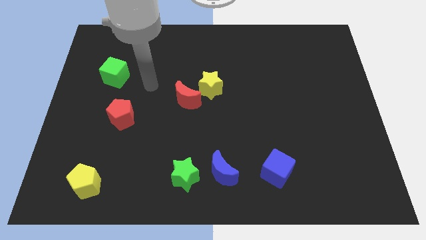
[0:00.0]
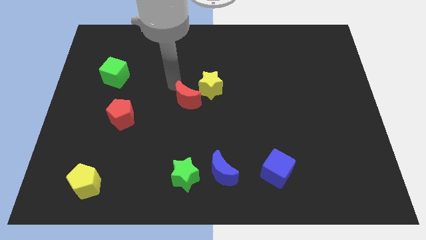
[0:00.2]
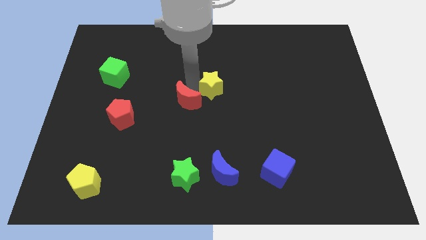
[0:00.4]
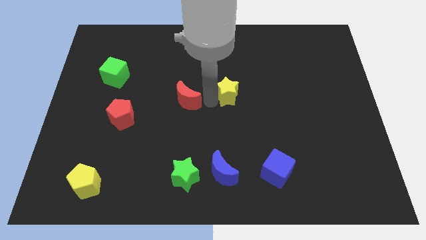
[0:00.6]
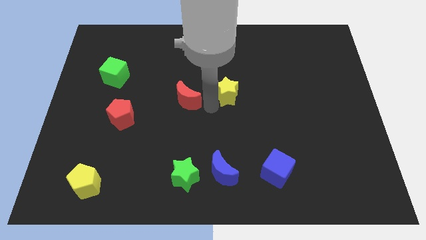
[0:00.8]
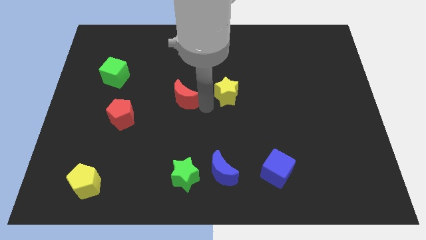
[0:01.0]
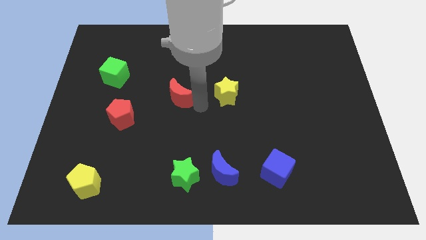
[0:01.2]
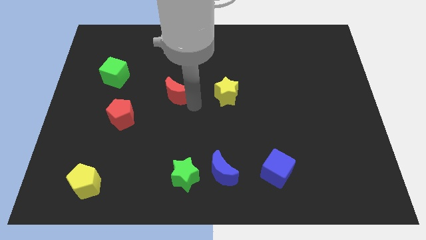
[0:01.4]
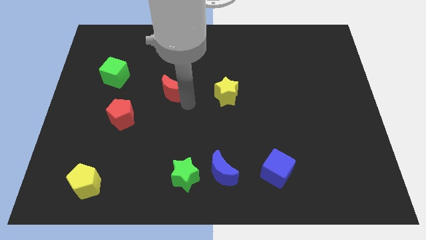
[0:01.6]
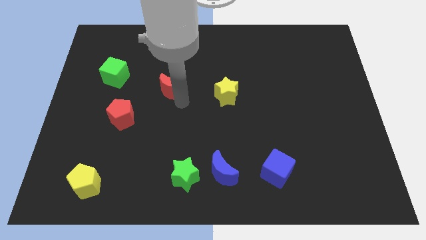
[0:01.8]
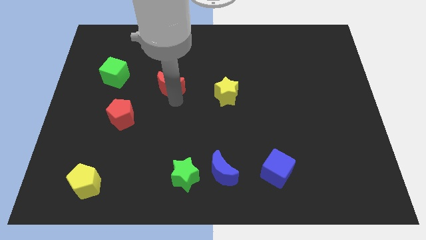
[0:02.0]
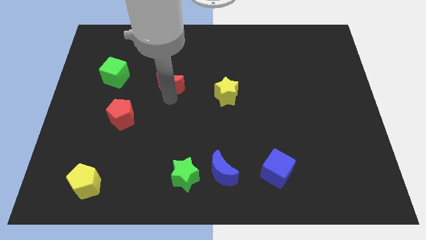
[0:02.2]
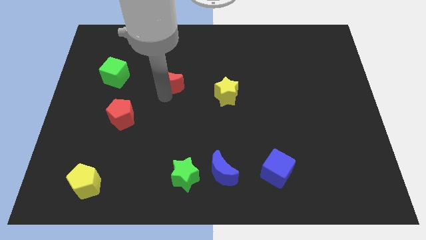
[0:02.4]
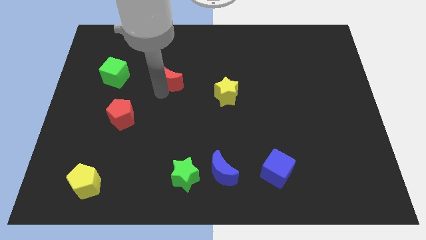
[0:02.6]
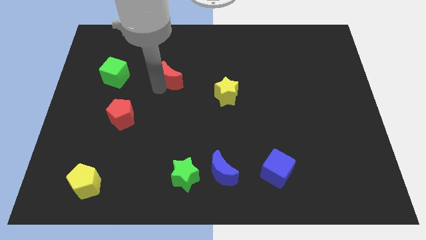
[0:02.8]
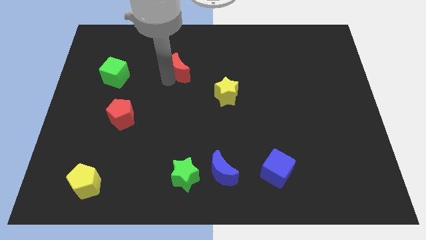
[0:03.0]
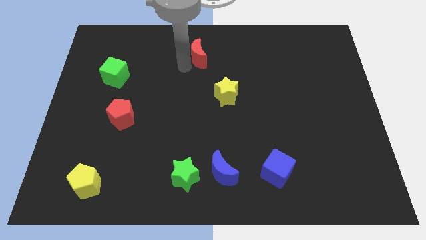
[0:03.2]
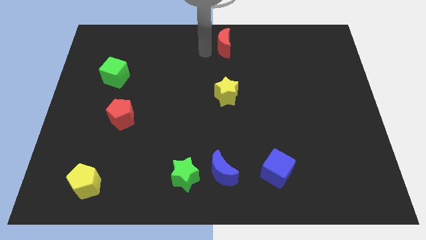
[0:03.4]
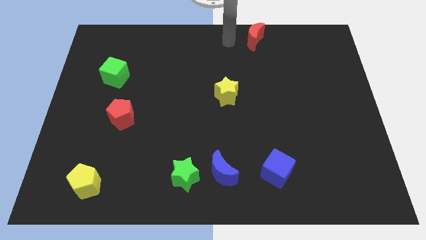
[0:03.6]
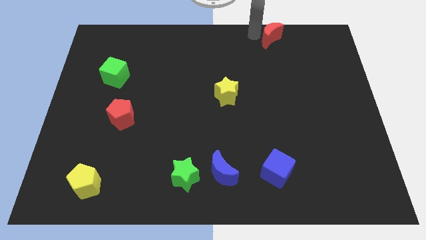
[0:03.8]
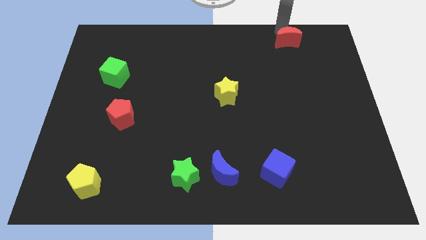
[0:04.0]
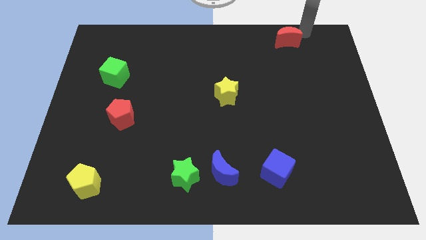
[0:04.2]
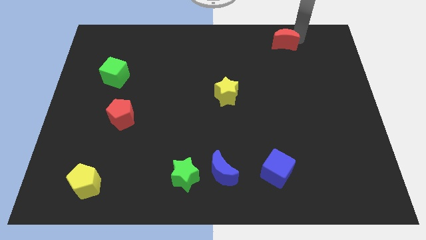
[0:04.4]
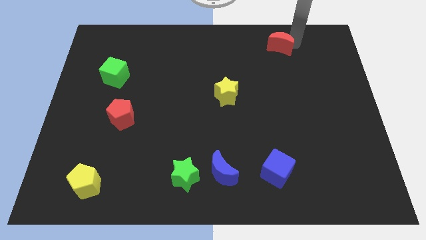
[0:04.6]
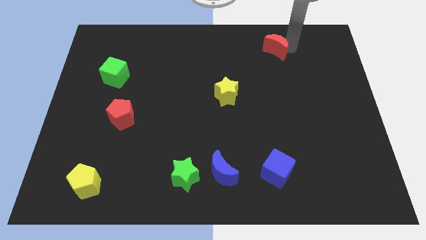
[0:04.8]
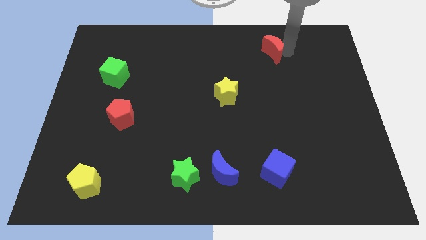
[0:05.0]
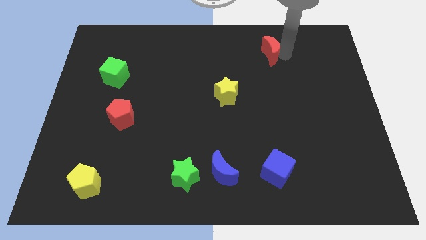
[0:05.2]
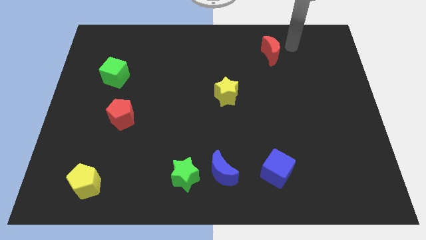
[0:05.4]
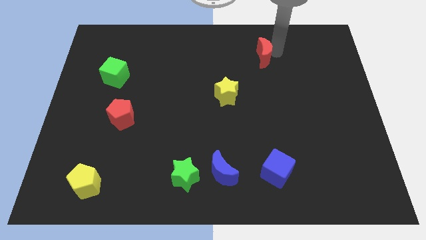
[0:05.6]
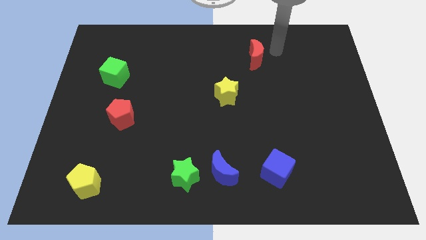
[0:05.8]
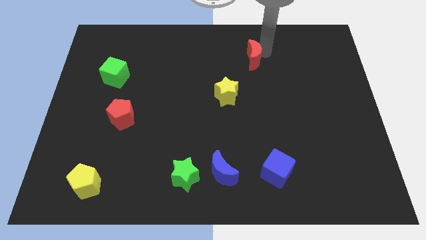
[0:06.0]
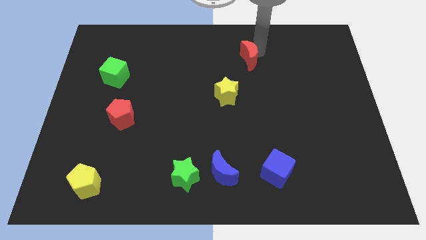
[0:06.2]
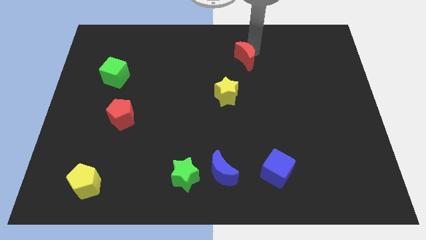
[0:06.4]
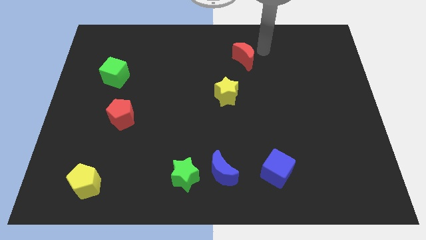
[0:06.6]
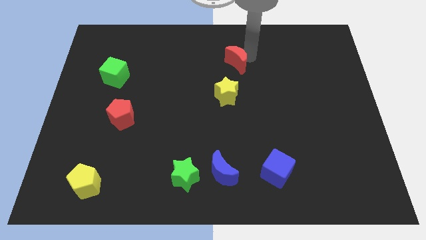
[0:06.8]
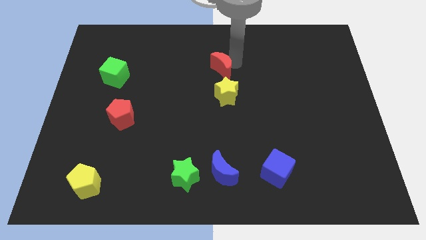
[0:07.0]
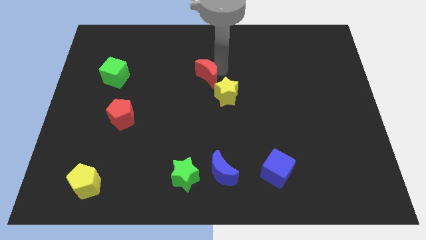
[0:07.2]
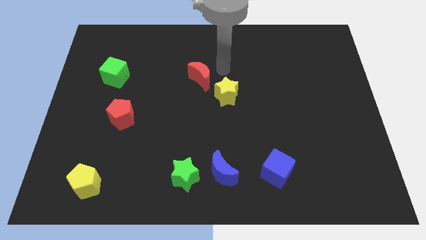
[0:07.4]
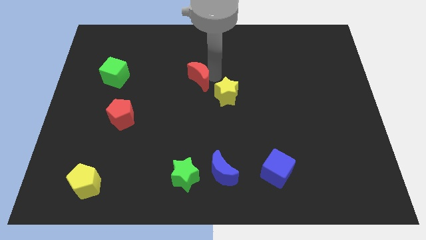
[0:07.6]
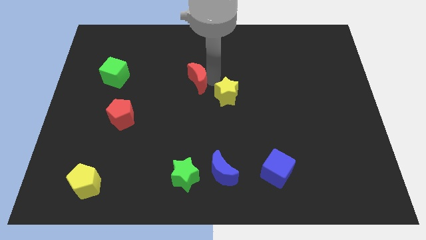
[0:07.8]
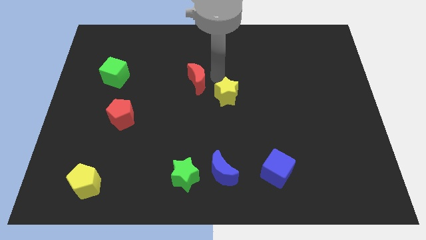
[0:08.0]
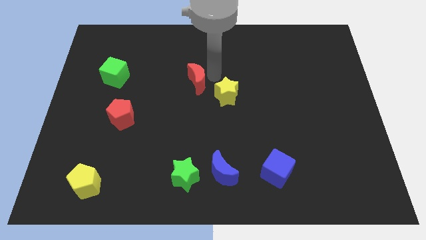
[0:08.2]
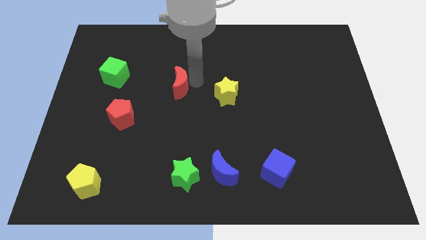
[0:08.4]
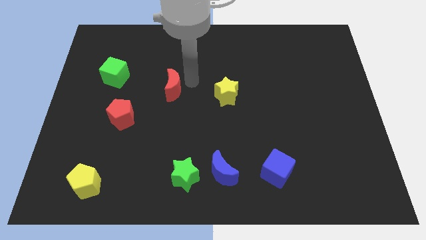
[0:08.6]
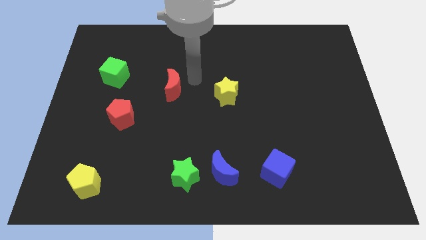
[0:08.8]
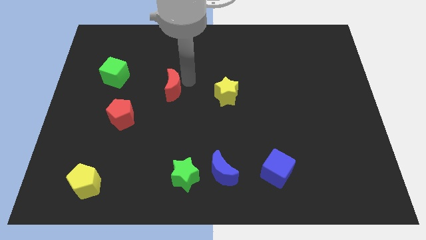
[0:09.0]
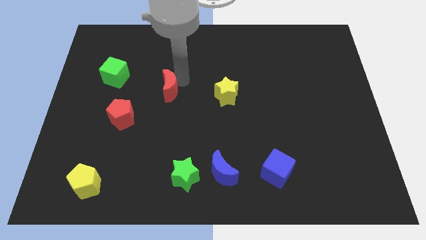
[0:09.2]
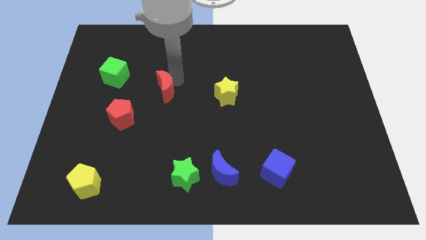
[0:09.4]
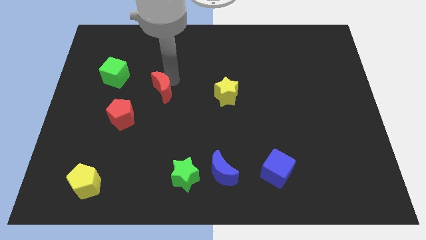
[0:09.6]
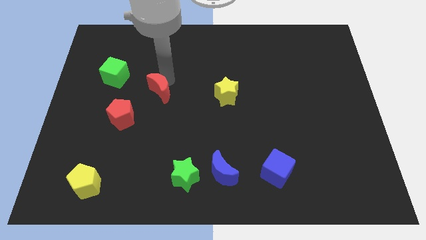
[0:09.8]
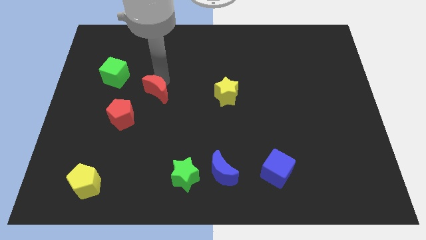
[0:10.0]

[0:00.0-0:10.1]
push the red moon somewhat left

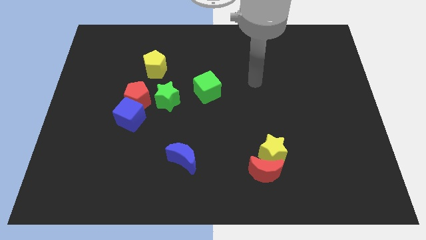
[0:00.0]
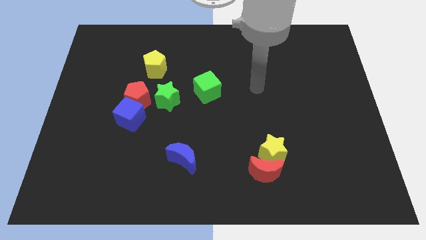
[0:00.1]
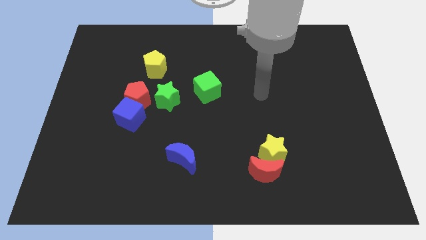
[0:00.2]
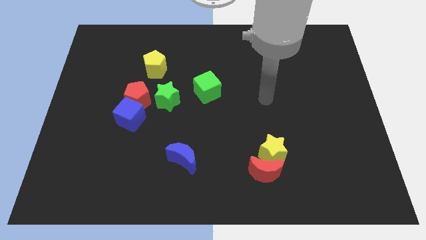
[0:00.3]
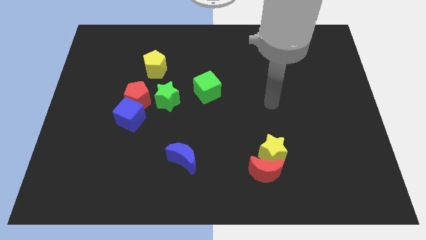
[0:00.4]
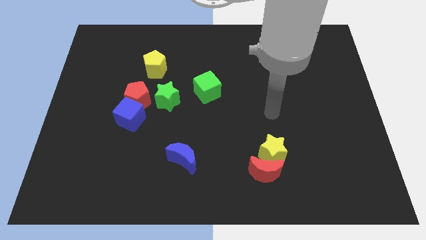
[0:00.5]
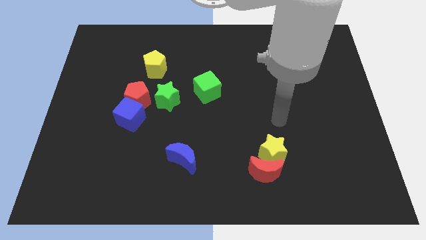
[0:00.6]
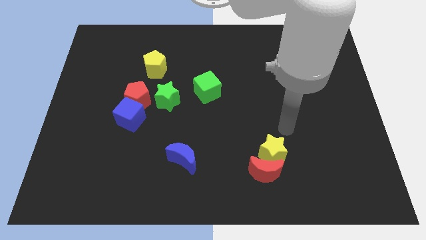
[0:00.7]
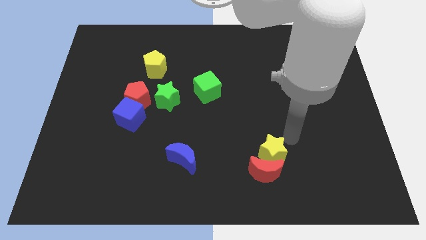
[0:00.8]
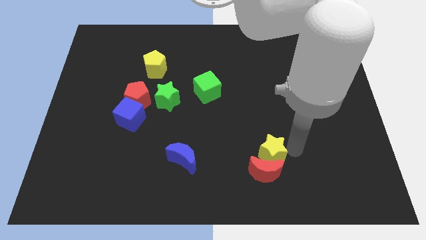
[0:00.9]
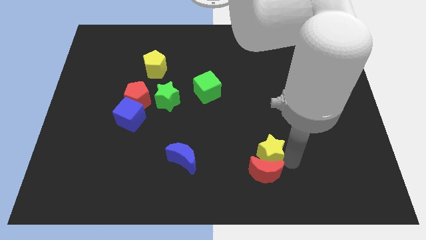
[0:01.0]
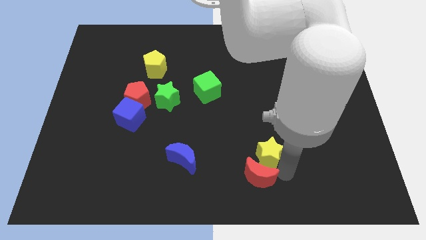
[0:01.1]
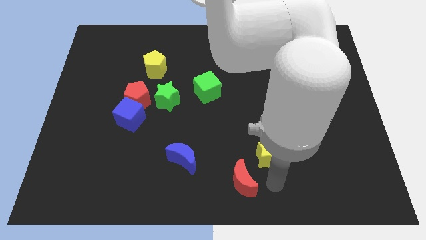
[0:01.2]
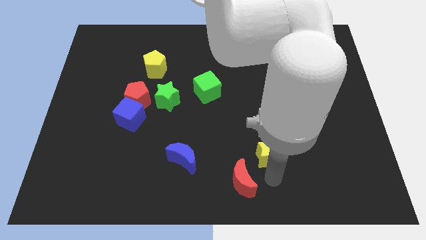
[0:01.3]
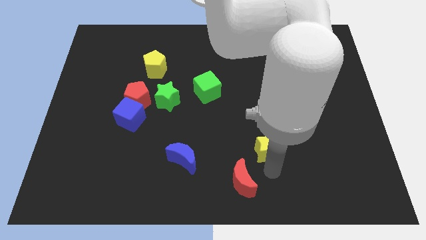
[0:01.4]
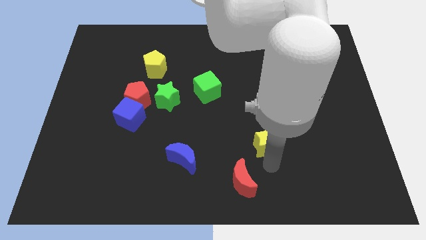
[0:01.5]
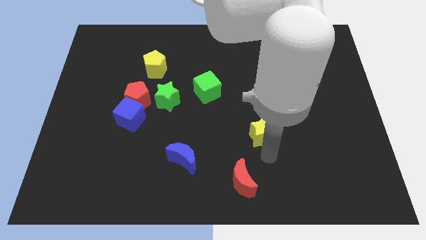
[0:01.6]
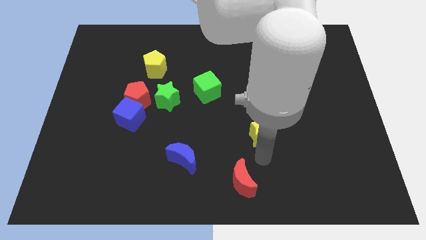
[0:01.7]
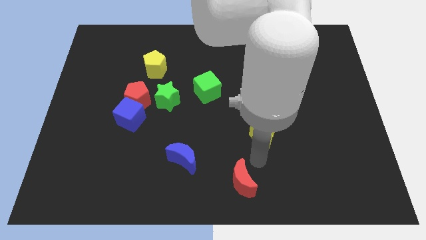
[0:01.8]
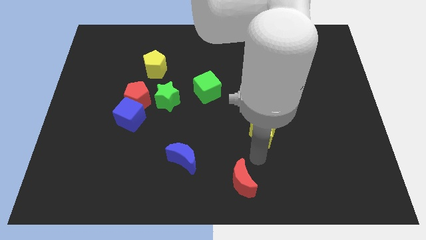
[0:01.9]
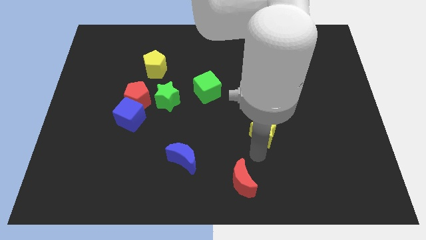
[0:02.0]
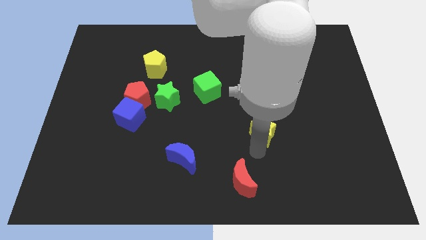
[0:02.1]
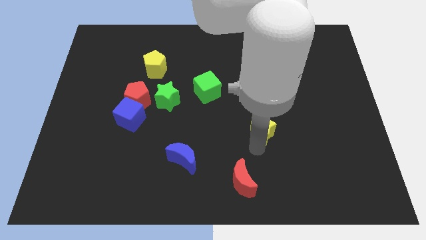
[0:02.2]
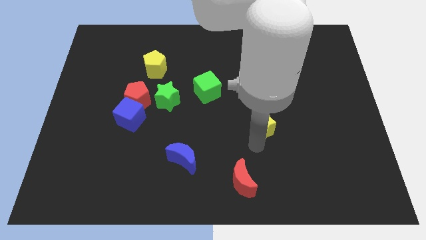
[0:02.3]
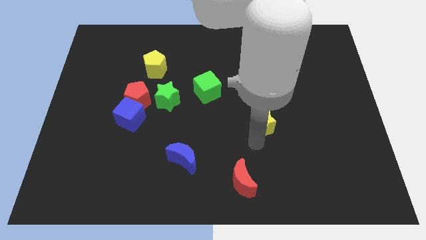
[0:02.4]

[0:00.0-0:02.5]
slightly move the yellow star upwards
